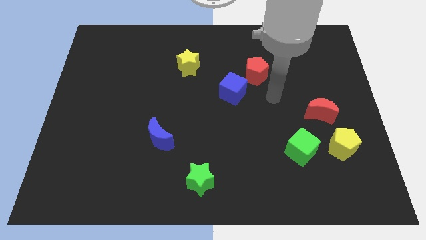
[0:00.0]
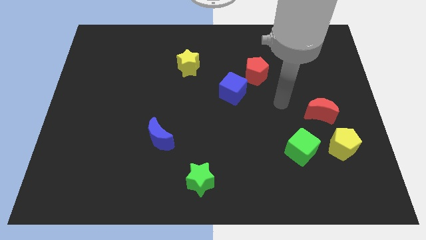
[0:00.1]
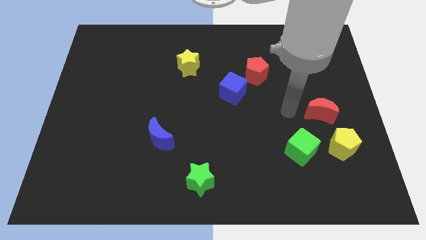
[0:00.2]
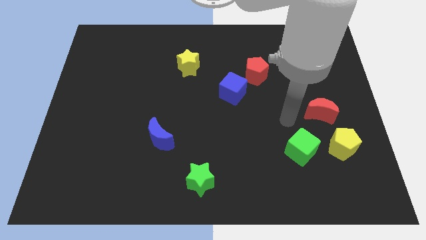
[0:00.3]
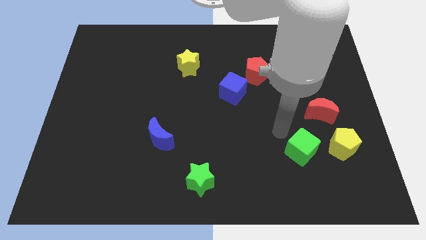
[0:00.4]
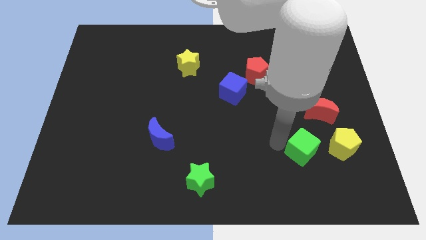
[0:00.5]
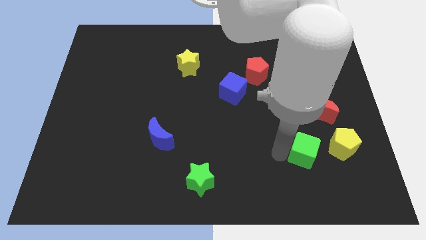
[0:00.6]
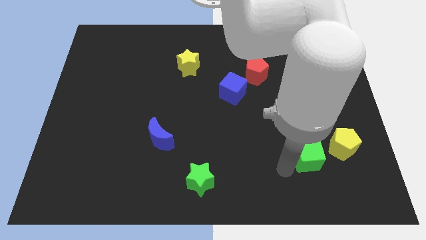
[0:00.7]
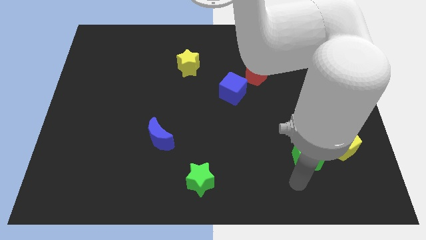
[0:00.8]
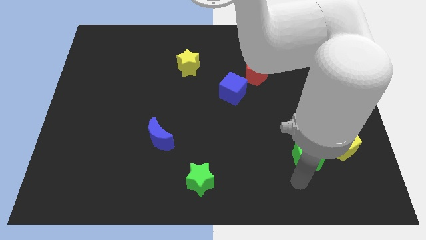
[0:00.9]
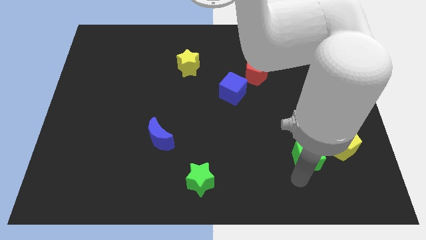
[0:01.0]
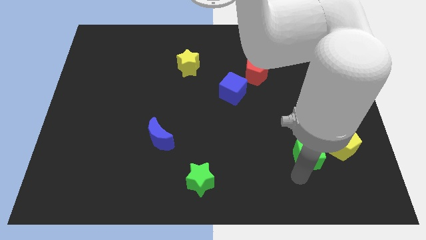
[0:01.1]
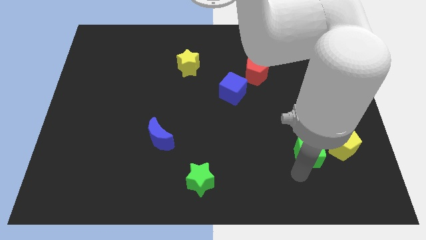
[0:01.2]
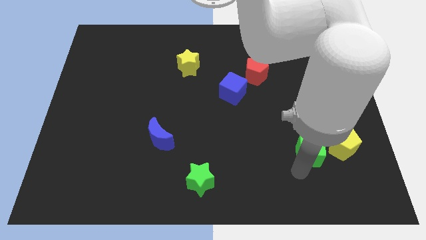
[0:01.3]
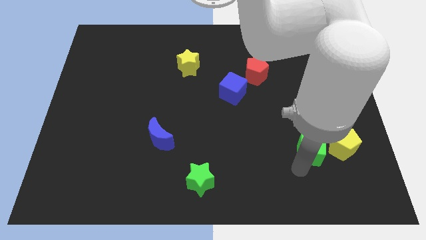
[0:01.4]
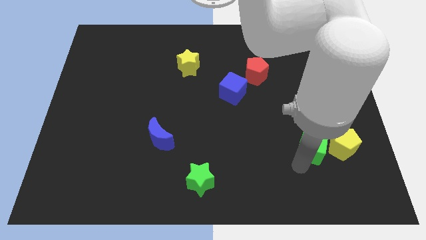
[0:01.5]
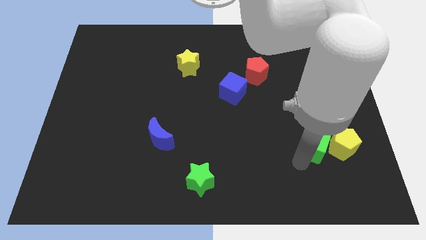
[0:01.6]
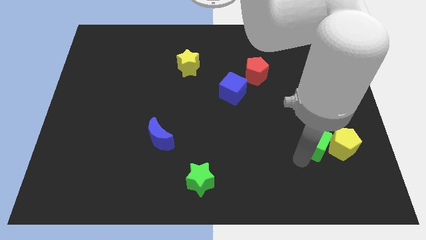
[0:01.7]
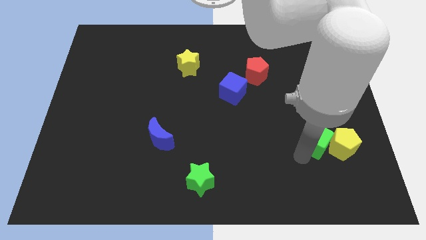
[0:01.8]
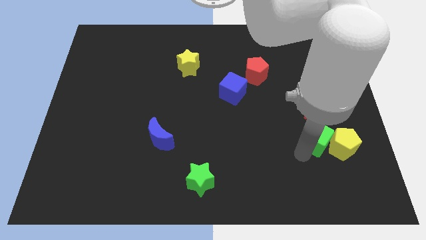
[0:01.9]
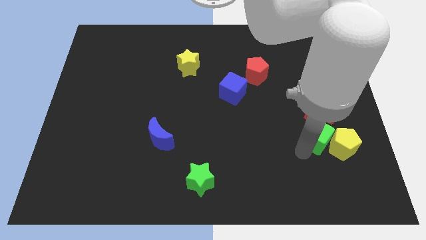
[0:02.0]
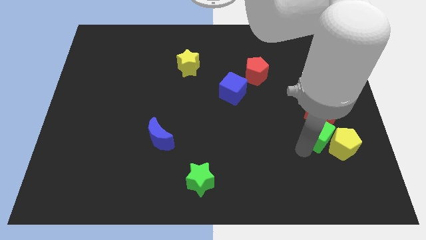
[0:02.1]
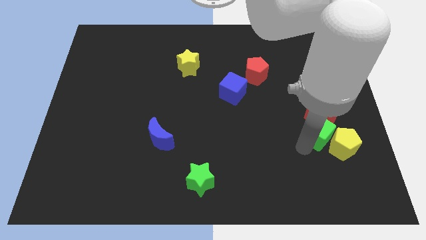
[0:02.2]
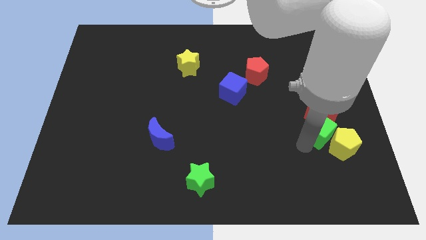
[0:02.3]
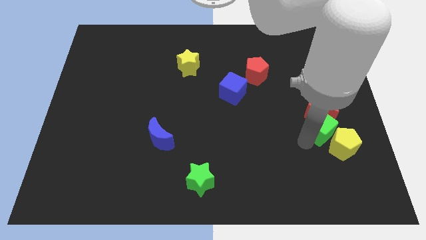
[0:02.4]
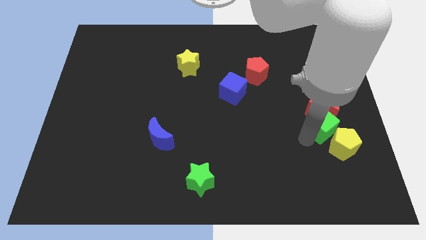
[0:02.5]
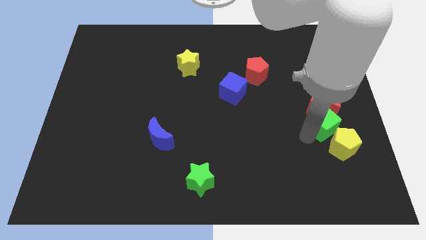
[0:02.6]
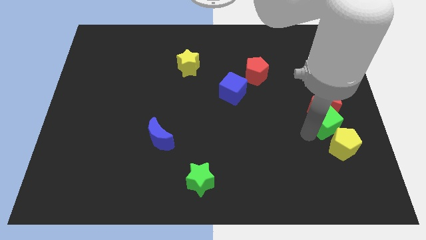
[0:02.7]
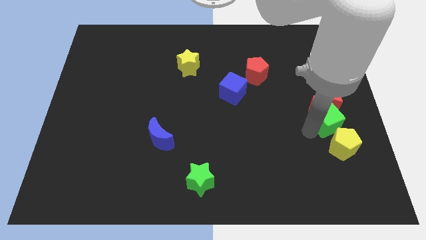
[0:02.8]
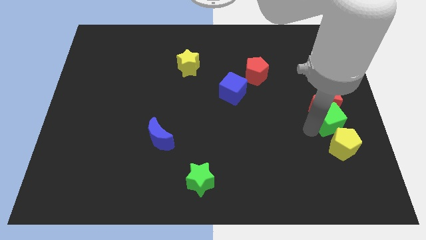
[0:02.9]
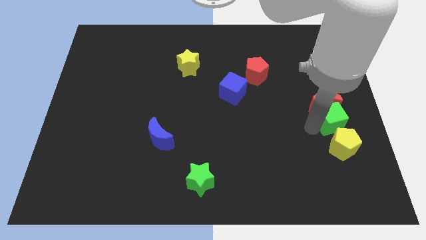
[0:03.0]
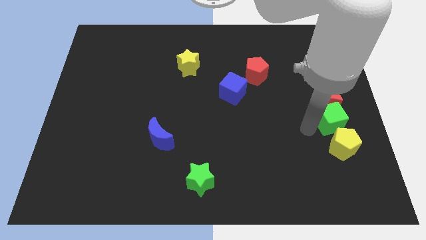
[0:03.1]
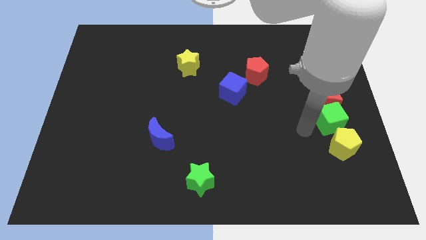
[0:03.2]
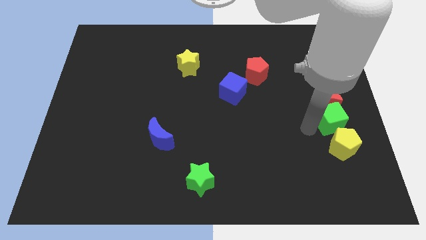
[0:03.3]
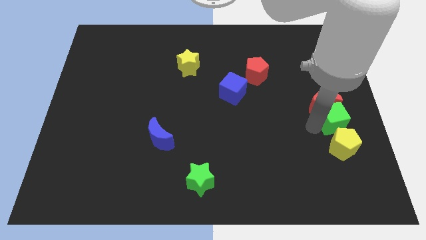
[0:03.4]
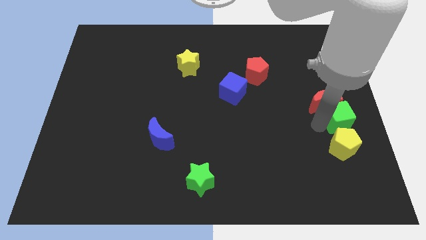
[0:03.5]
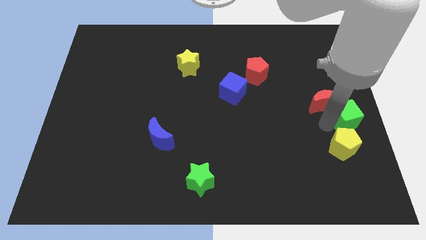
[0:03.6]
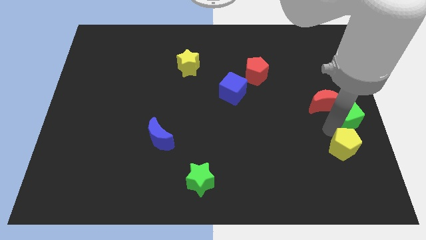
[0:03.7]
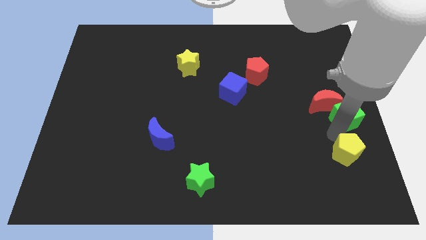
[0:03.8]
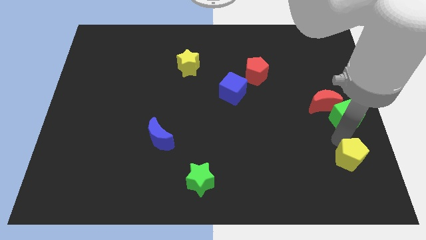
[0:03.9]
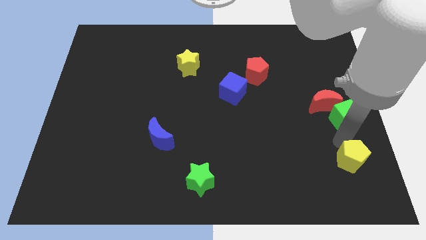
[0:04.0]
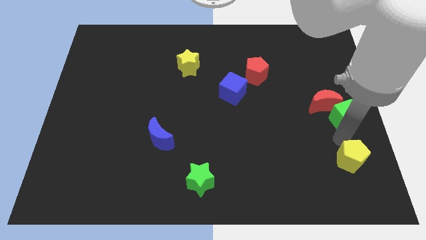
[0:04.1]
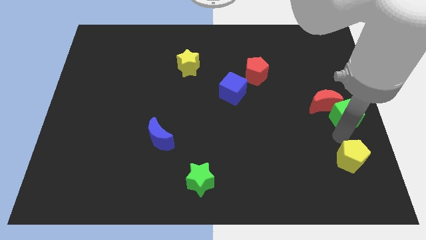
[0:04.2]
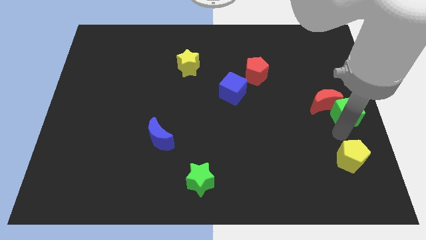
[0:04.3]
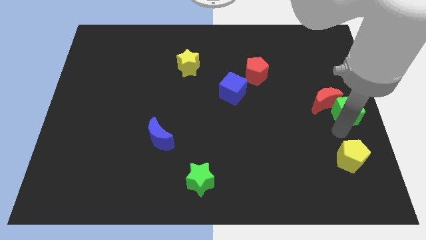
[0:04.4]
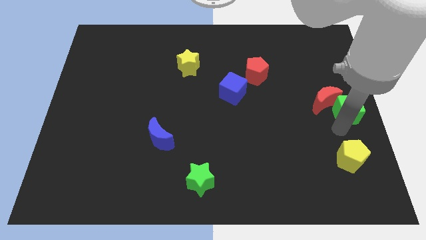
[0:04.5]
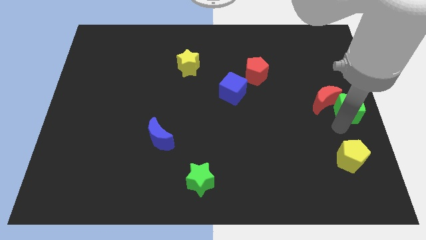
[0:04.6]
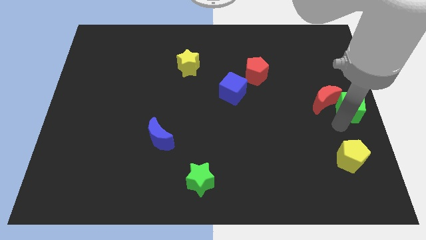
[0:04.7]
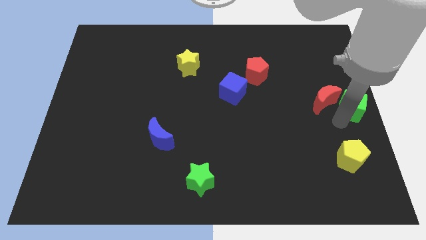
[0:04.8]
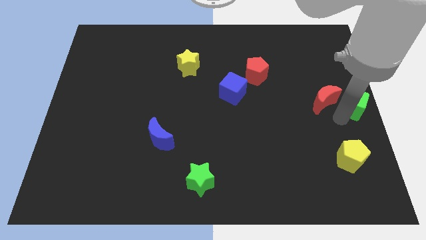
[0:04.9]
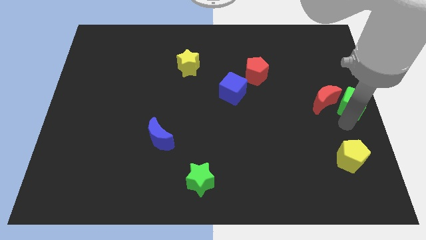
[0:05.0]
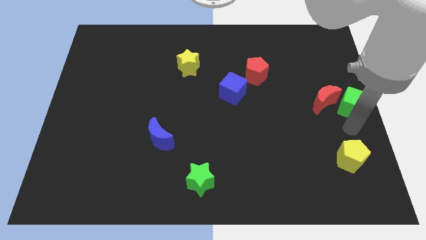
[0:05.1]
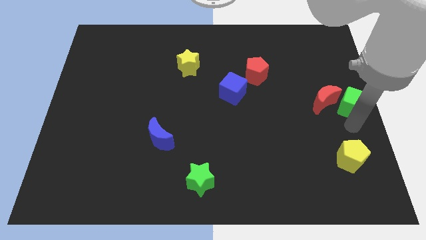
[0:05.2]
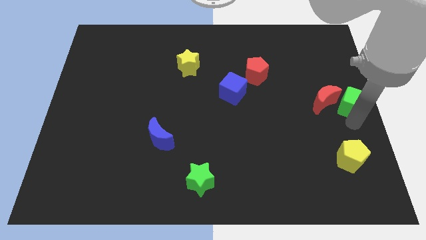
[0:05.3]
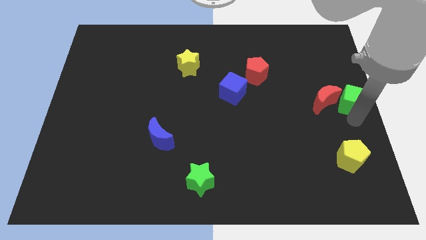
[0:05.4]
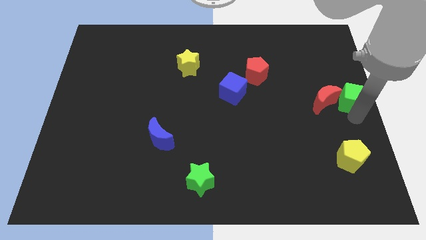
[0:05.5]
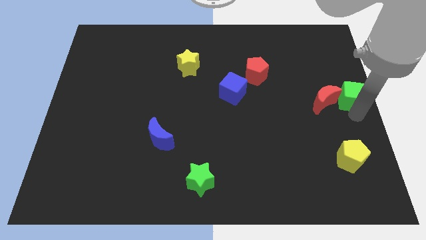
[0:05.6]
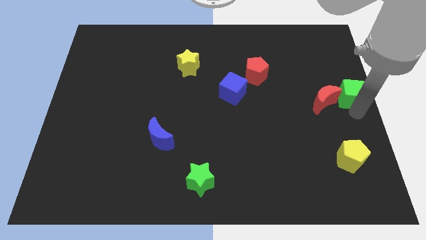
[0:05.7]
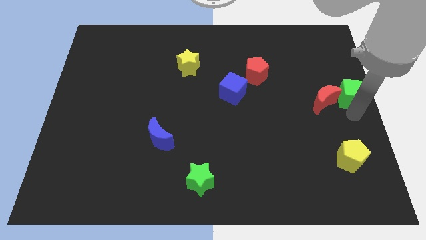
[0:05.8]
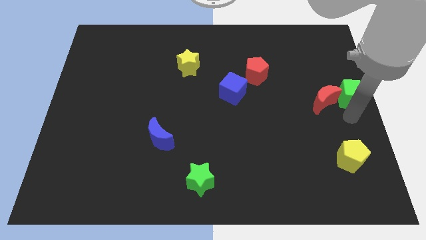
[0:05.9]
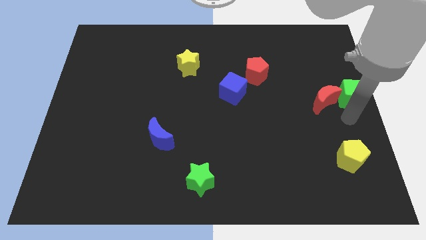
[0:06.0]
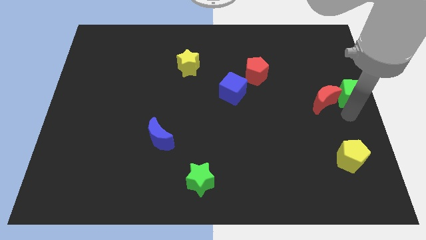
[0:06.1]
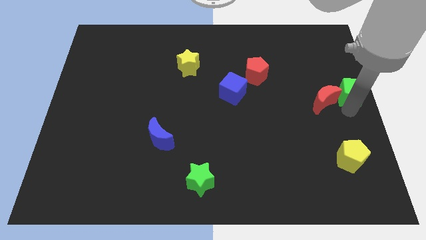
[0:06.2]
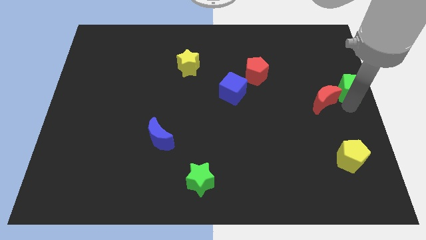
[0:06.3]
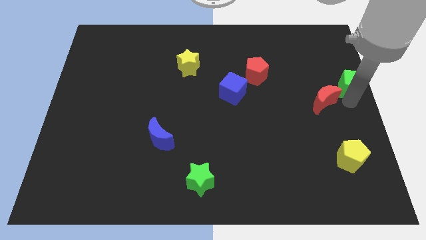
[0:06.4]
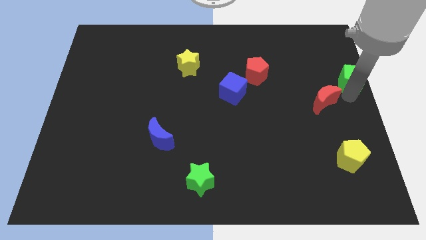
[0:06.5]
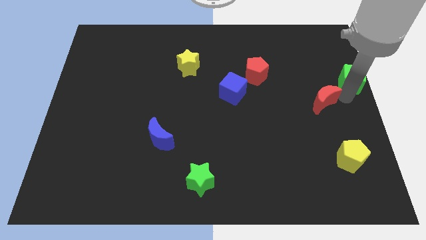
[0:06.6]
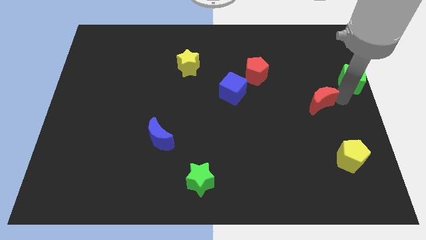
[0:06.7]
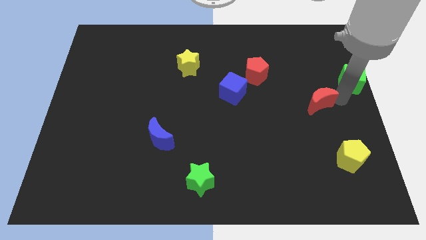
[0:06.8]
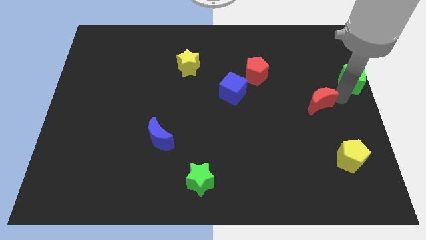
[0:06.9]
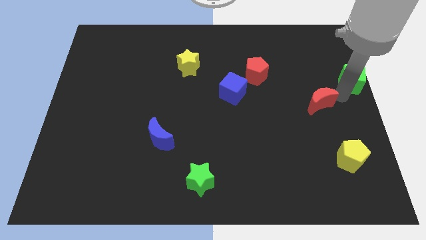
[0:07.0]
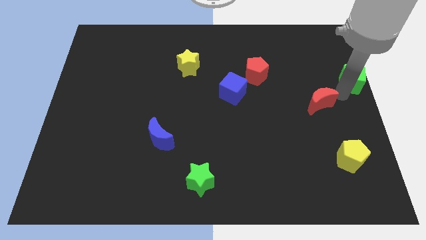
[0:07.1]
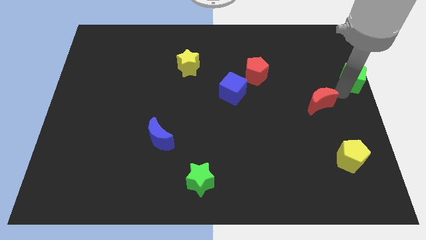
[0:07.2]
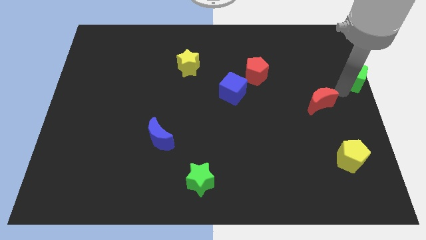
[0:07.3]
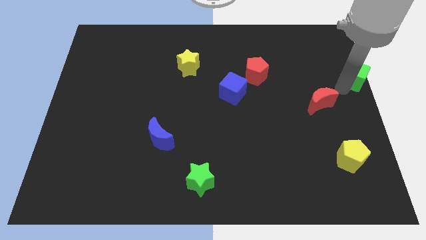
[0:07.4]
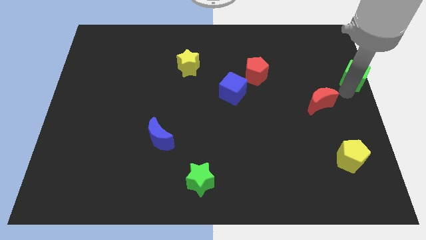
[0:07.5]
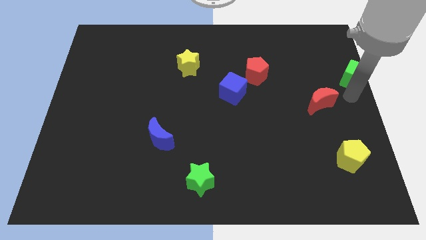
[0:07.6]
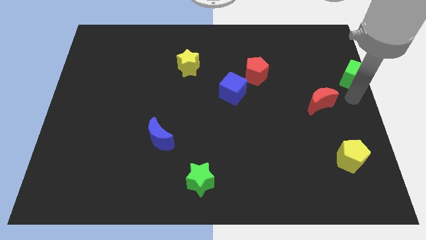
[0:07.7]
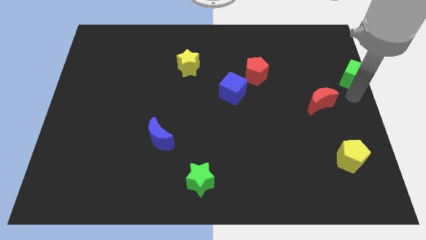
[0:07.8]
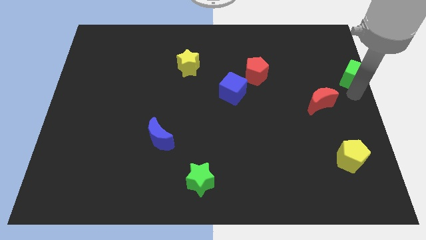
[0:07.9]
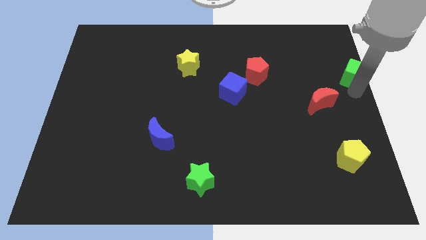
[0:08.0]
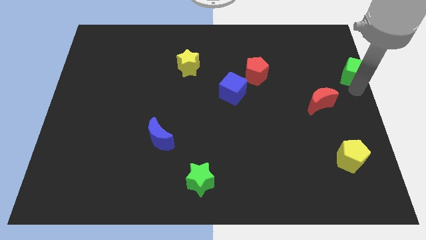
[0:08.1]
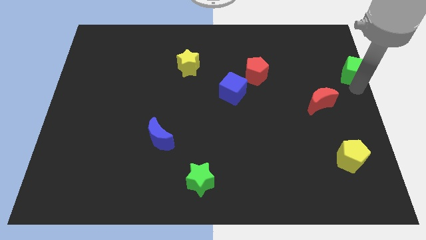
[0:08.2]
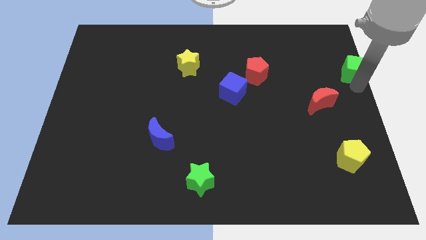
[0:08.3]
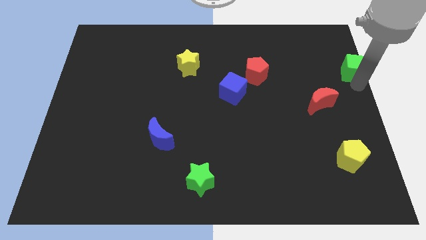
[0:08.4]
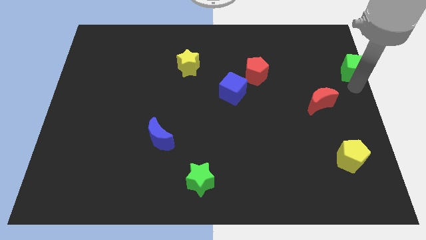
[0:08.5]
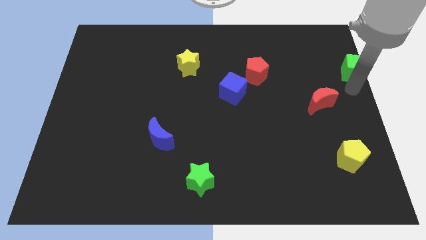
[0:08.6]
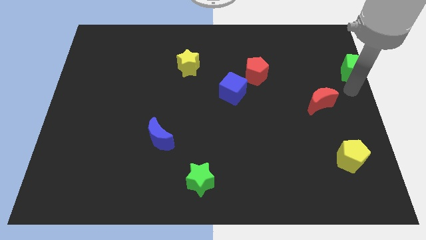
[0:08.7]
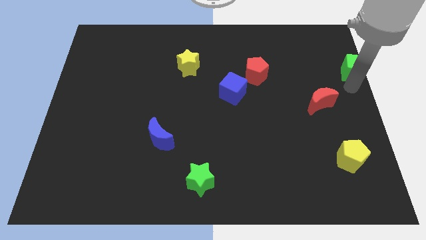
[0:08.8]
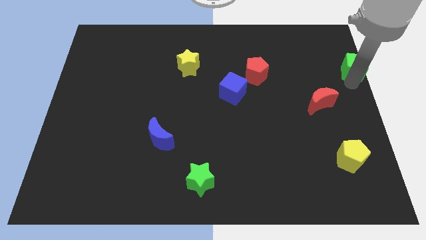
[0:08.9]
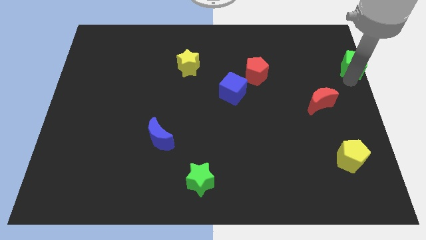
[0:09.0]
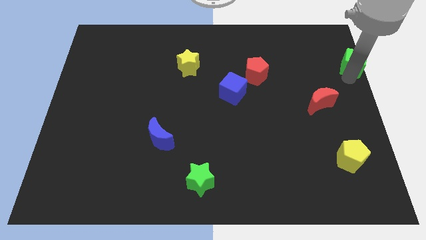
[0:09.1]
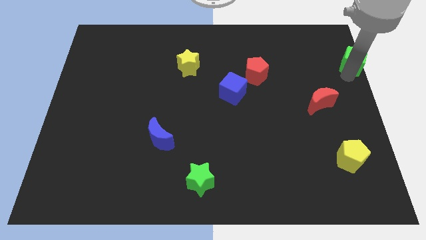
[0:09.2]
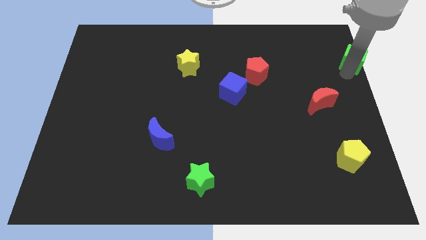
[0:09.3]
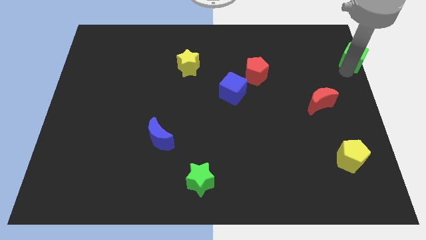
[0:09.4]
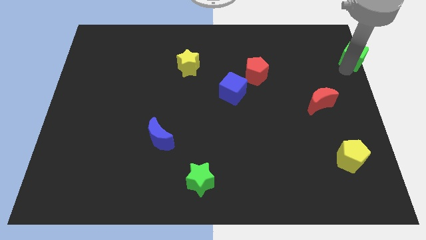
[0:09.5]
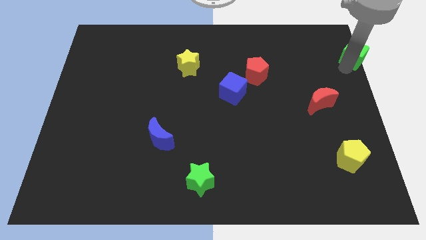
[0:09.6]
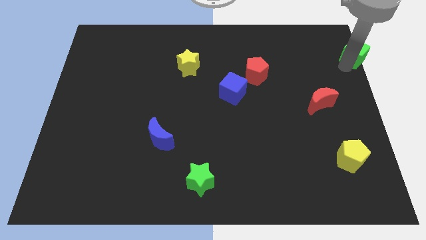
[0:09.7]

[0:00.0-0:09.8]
put the green cube to the top right of the board
